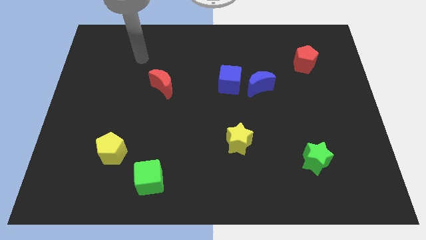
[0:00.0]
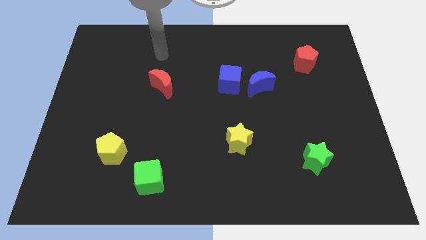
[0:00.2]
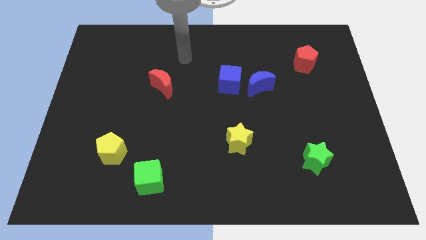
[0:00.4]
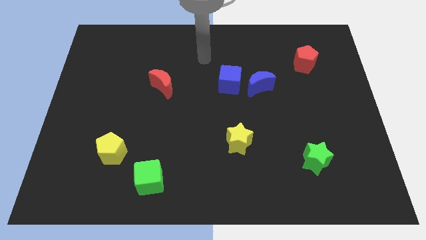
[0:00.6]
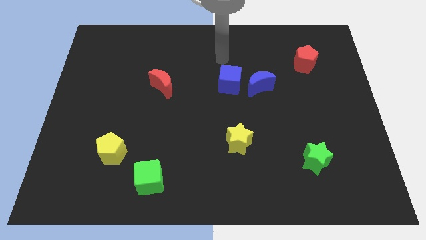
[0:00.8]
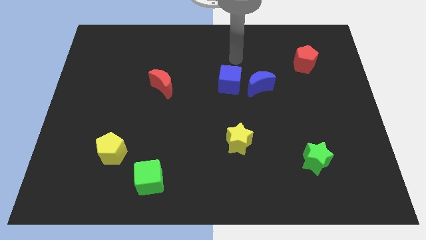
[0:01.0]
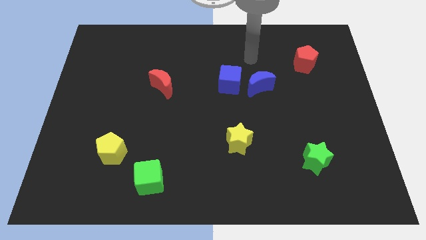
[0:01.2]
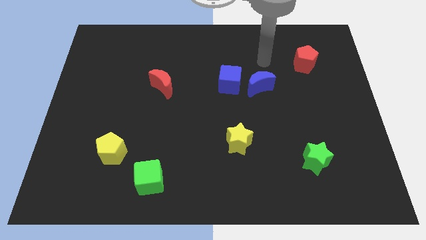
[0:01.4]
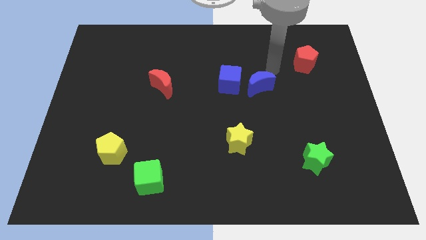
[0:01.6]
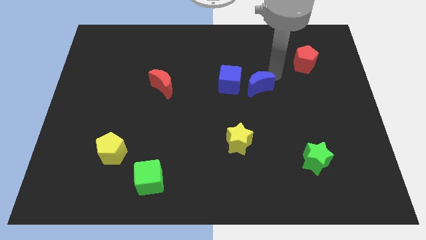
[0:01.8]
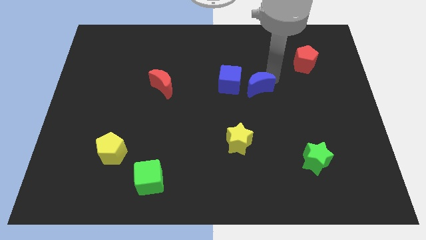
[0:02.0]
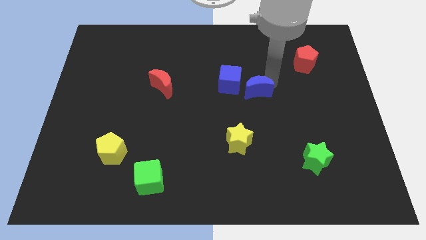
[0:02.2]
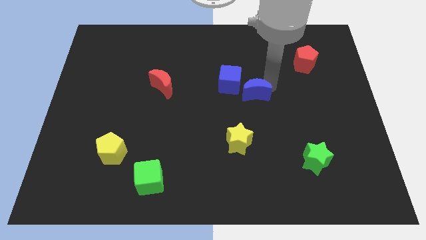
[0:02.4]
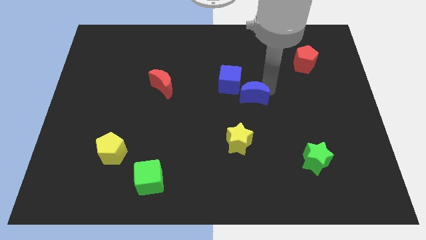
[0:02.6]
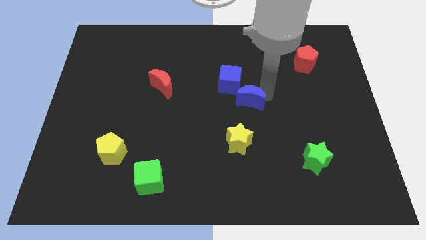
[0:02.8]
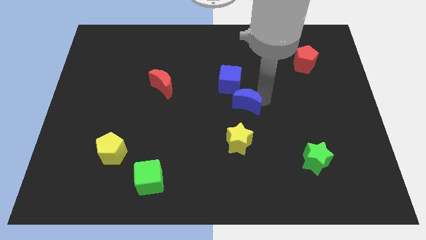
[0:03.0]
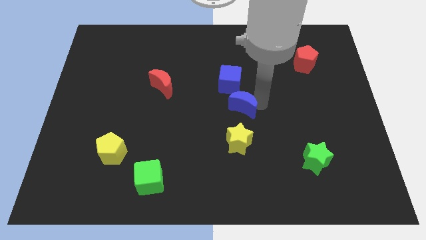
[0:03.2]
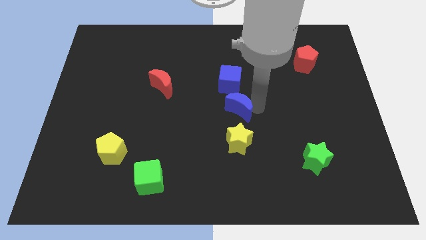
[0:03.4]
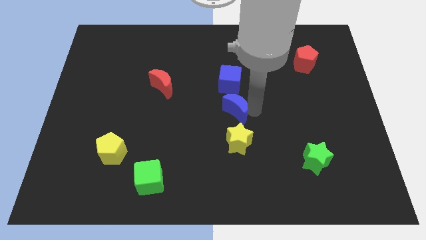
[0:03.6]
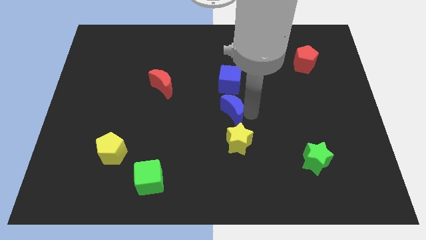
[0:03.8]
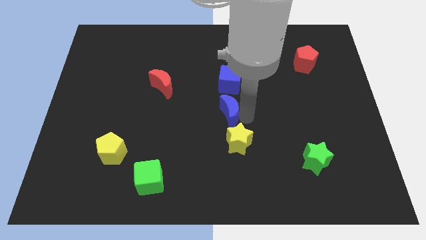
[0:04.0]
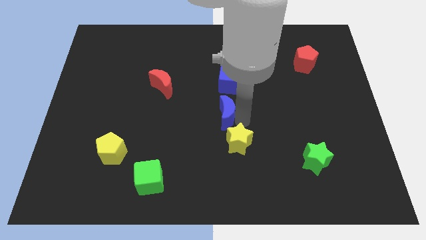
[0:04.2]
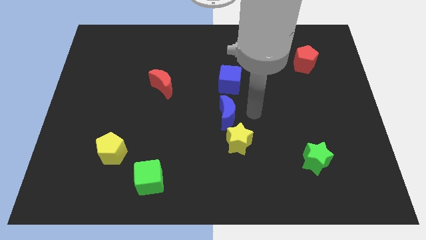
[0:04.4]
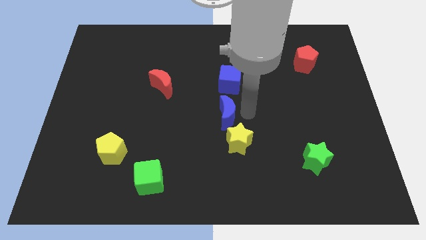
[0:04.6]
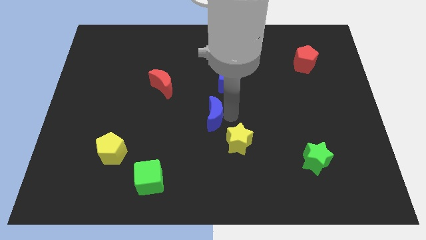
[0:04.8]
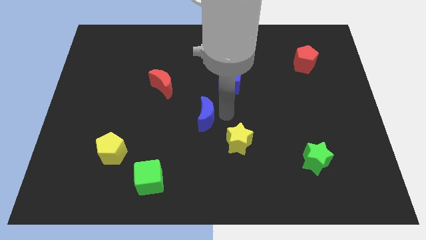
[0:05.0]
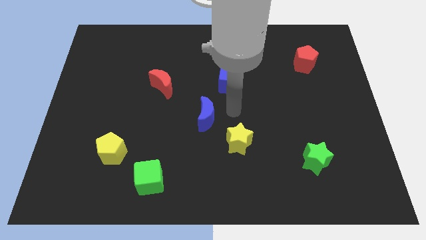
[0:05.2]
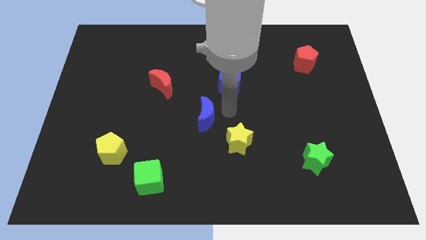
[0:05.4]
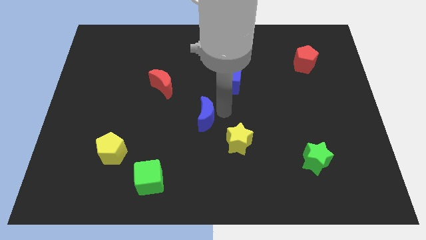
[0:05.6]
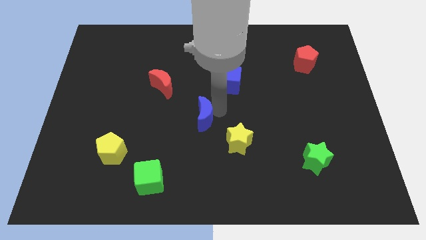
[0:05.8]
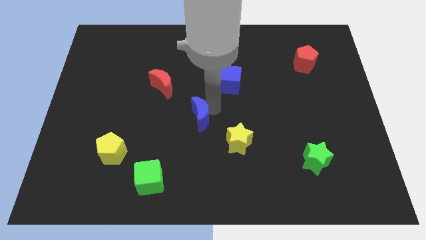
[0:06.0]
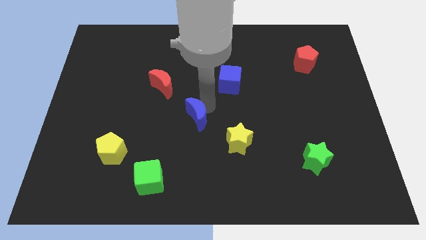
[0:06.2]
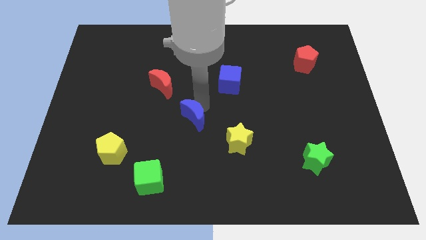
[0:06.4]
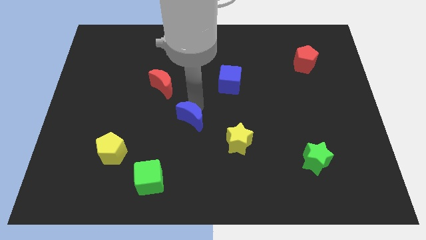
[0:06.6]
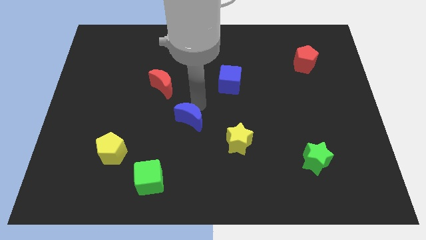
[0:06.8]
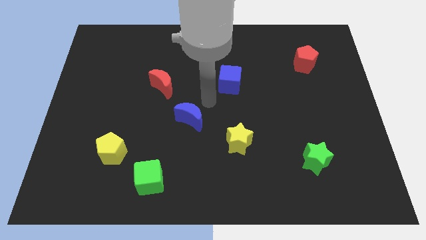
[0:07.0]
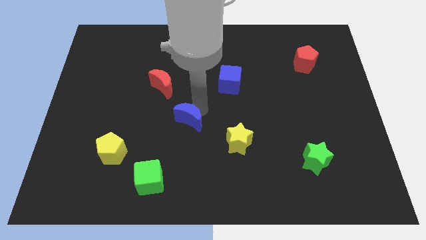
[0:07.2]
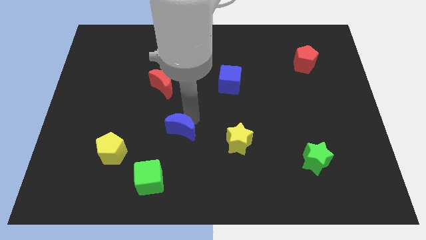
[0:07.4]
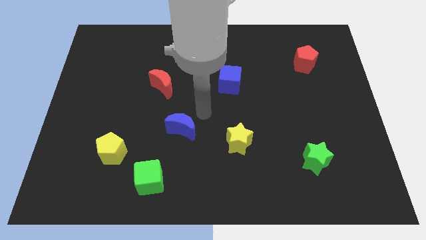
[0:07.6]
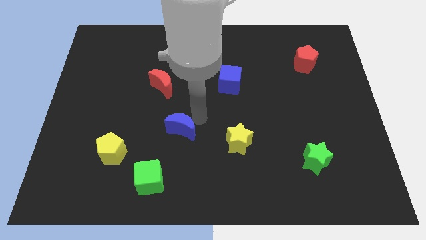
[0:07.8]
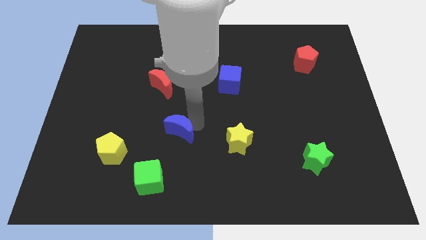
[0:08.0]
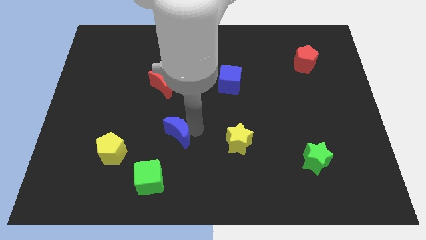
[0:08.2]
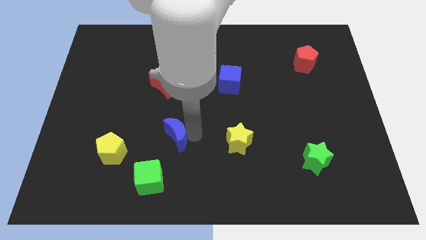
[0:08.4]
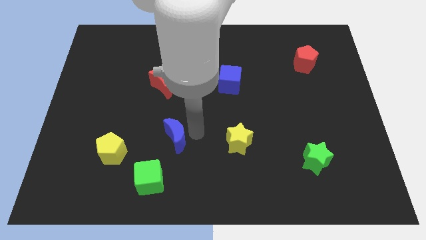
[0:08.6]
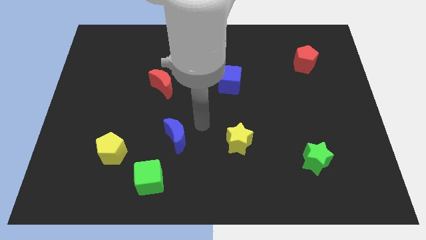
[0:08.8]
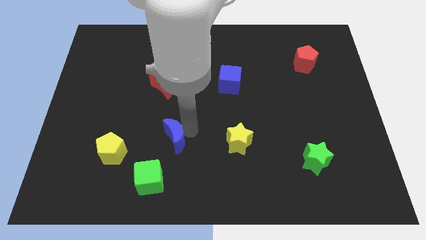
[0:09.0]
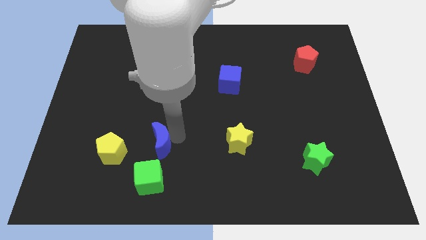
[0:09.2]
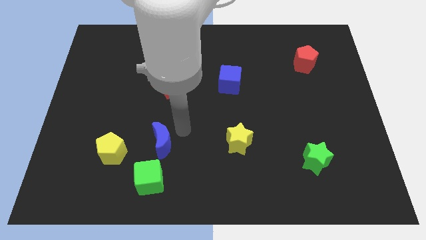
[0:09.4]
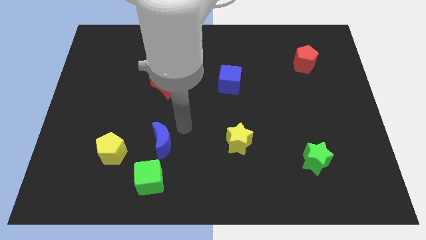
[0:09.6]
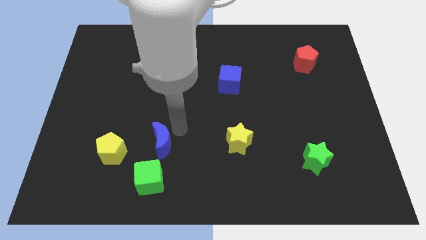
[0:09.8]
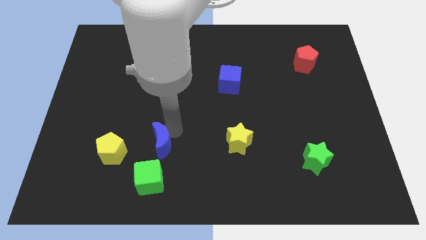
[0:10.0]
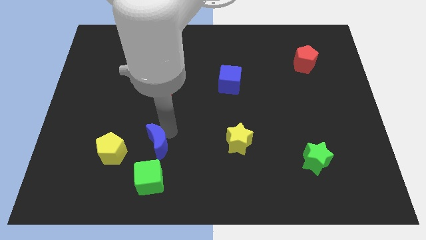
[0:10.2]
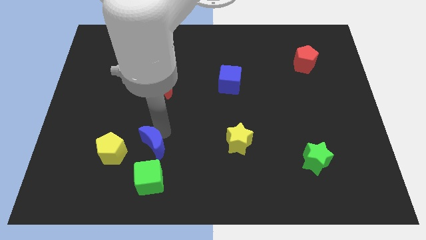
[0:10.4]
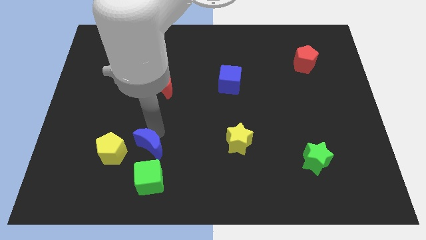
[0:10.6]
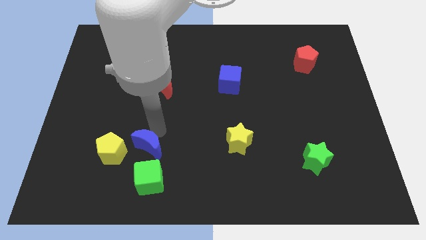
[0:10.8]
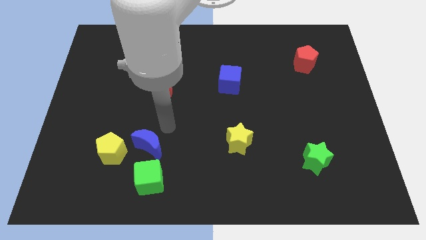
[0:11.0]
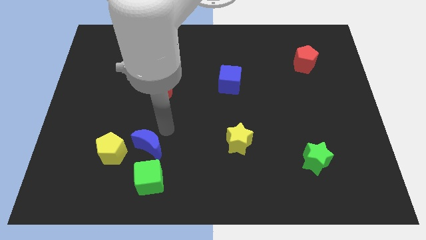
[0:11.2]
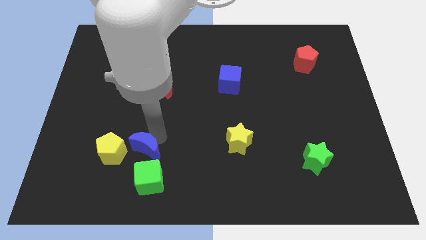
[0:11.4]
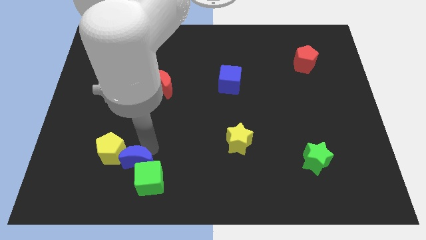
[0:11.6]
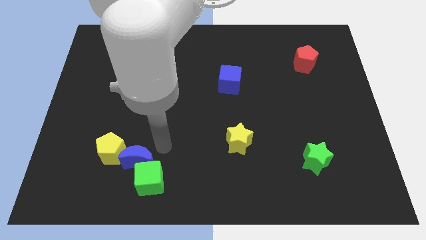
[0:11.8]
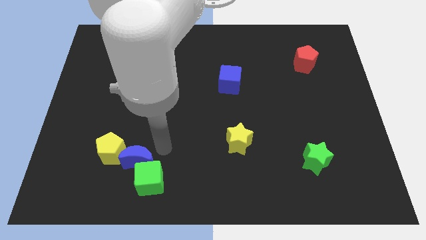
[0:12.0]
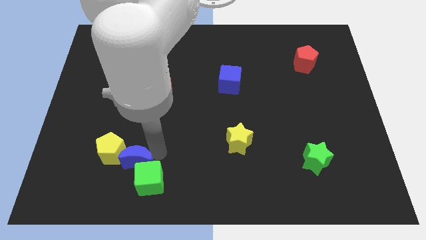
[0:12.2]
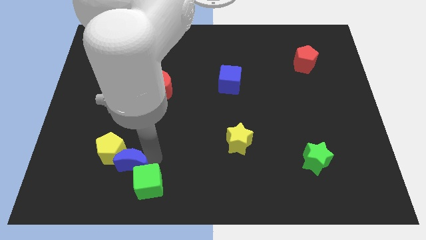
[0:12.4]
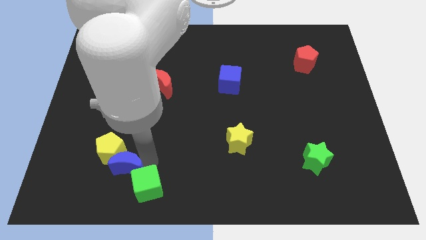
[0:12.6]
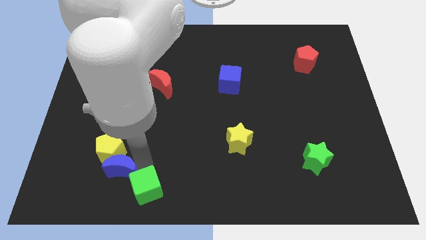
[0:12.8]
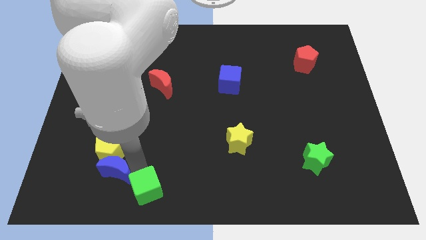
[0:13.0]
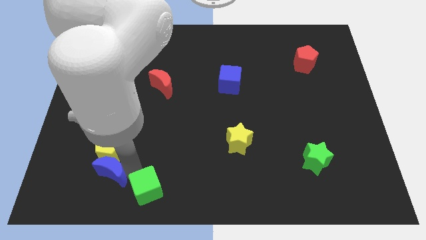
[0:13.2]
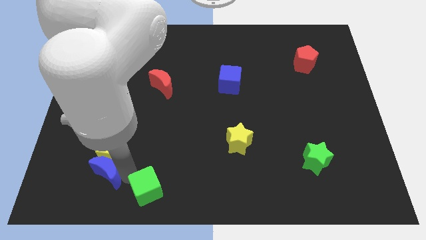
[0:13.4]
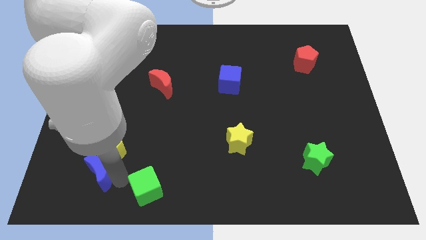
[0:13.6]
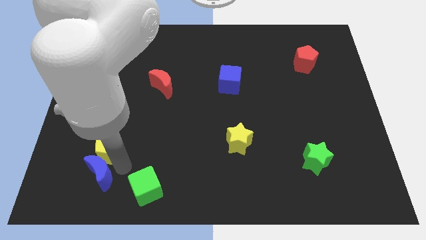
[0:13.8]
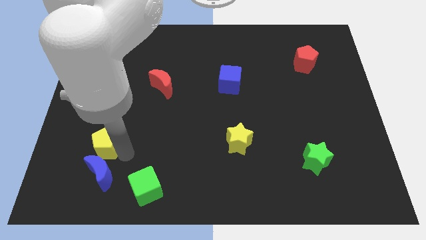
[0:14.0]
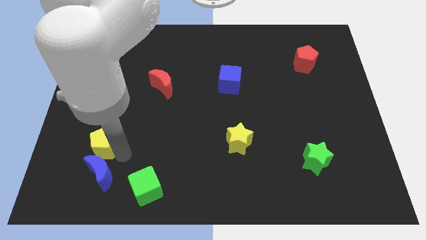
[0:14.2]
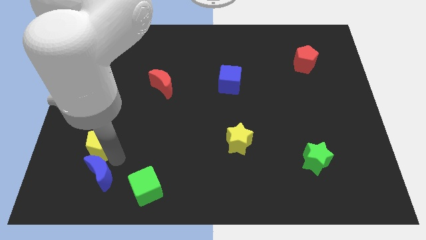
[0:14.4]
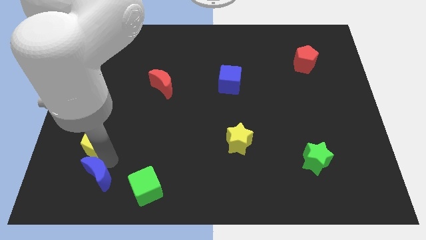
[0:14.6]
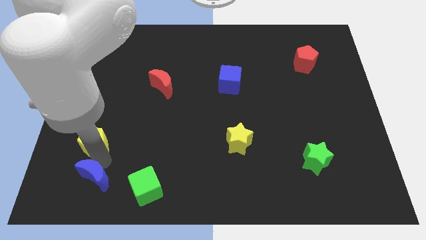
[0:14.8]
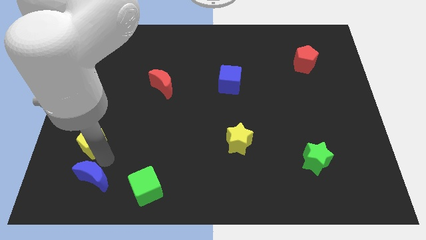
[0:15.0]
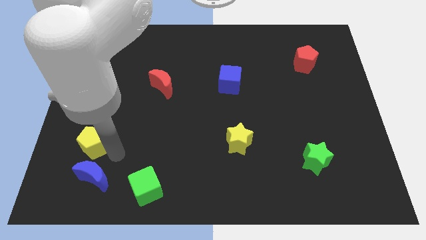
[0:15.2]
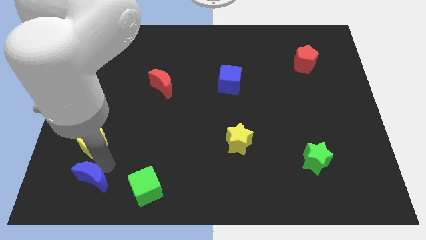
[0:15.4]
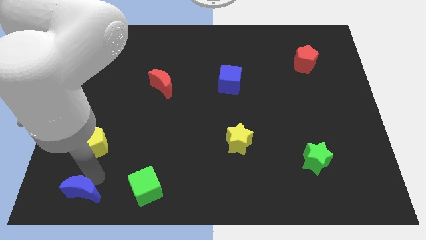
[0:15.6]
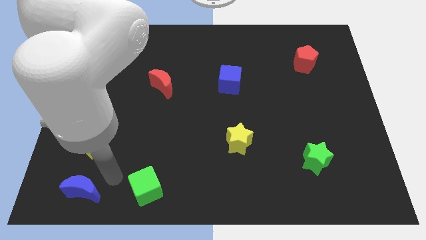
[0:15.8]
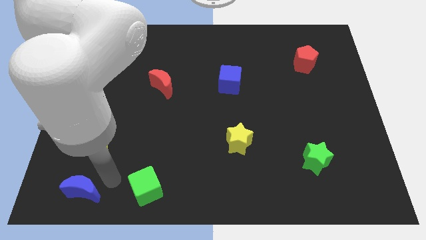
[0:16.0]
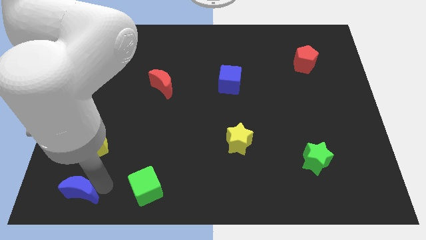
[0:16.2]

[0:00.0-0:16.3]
push the blue moon to the bottom left of the board
